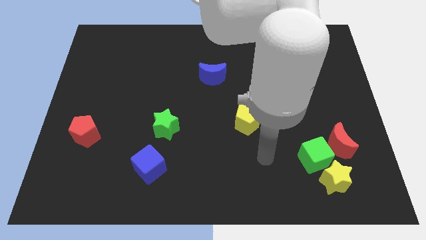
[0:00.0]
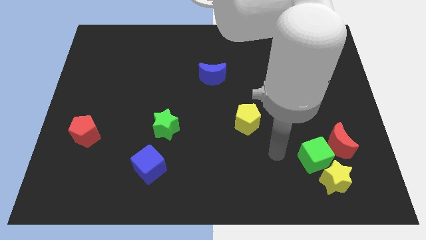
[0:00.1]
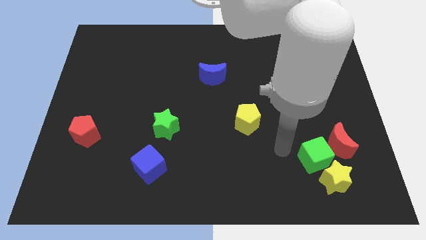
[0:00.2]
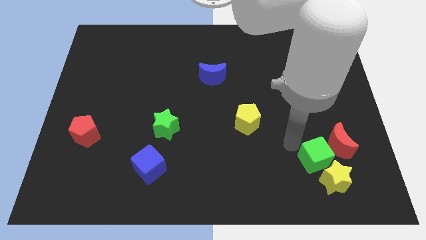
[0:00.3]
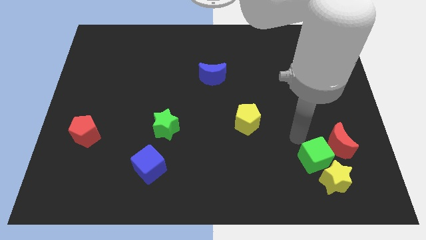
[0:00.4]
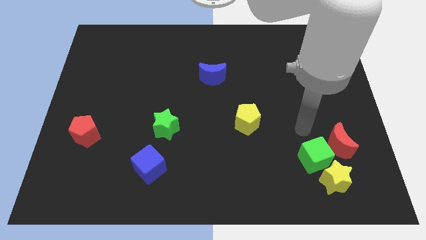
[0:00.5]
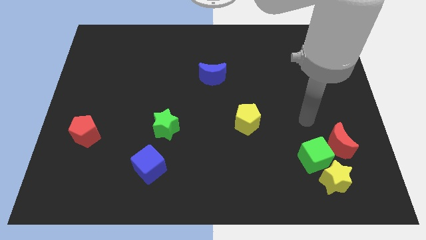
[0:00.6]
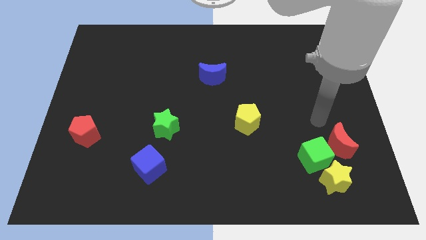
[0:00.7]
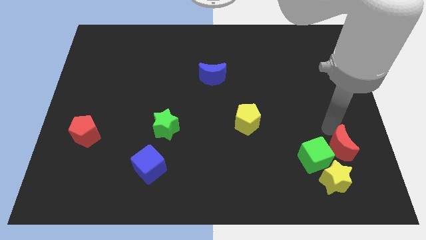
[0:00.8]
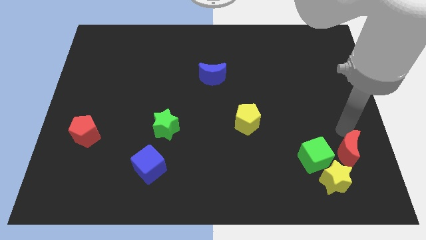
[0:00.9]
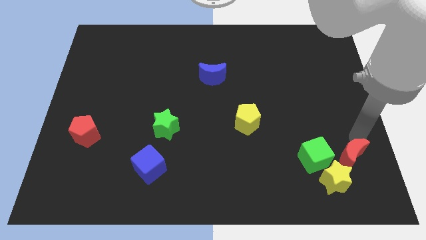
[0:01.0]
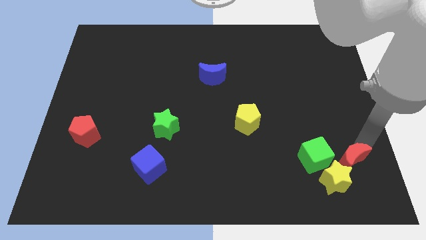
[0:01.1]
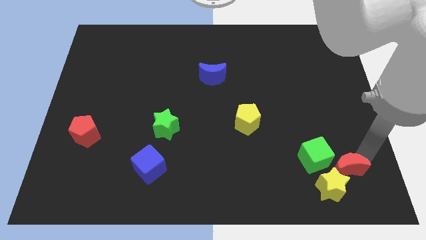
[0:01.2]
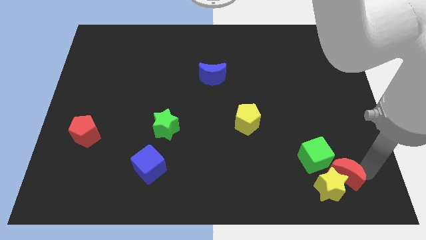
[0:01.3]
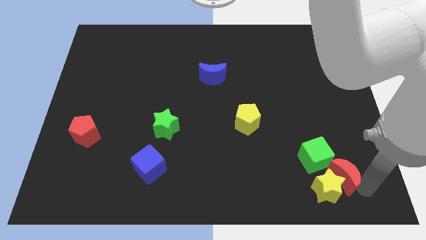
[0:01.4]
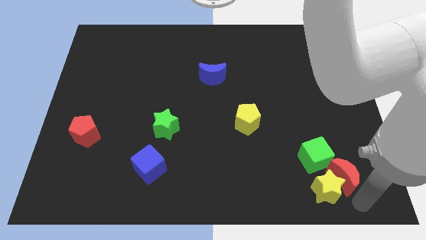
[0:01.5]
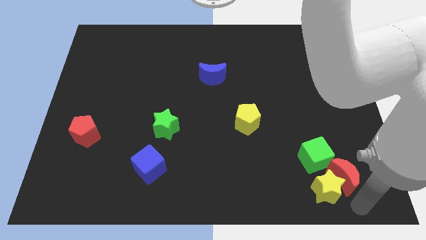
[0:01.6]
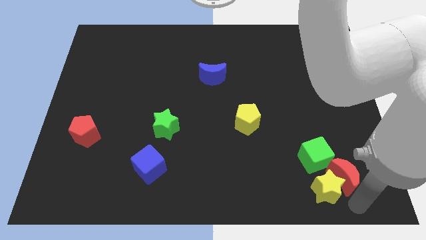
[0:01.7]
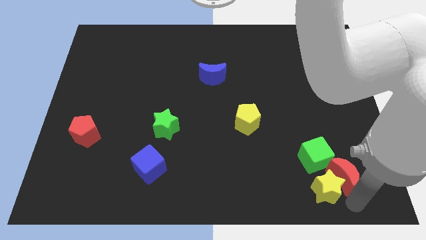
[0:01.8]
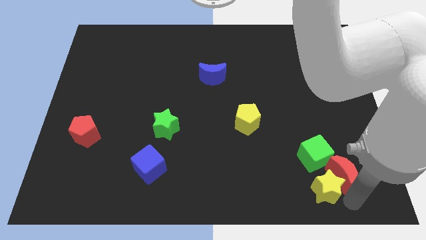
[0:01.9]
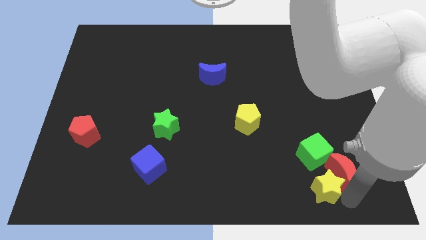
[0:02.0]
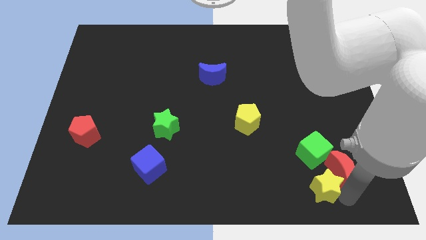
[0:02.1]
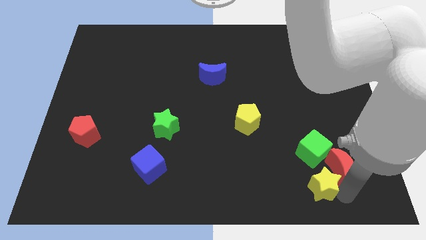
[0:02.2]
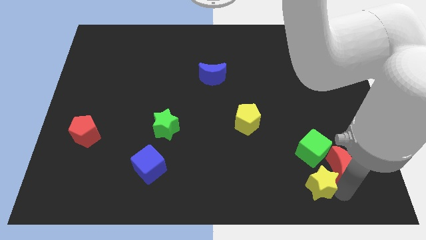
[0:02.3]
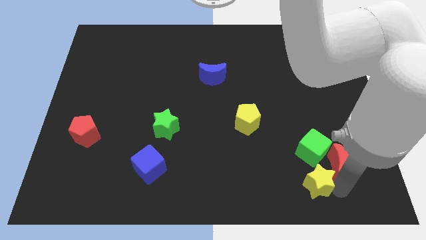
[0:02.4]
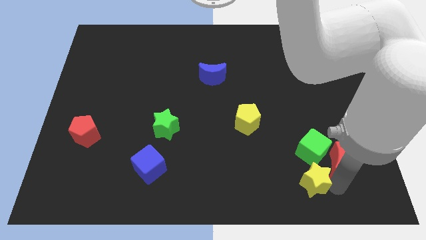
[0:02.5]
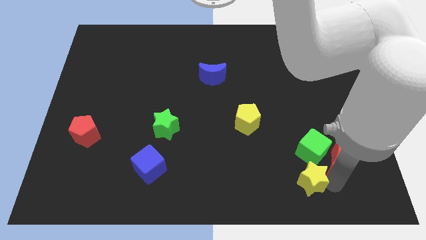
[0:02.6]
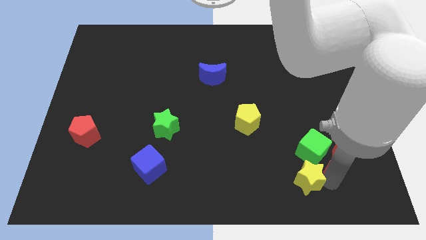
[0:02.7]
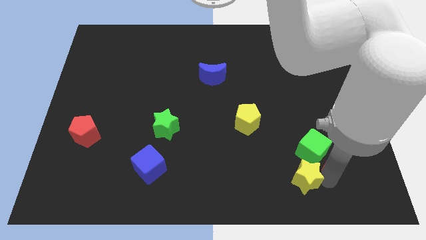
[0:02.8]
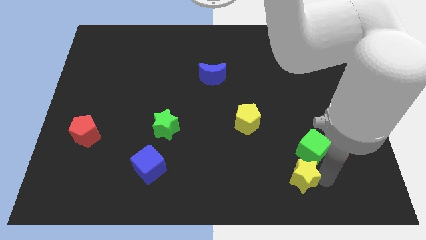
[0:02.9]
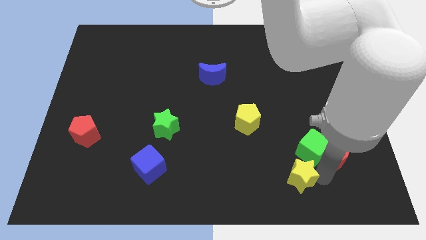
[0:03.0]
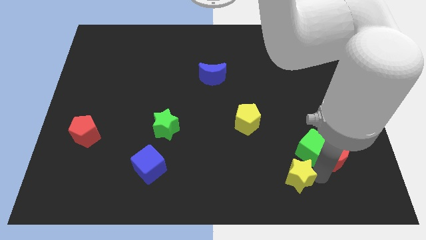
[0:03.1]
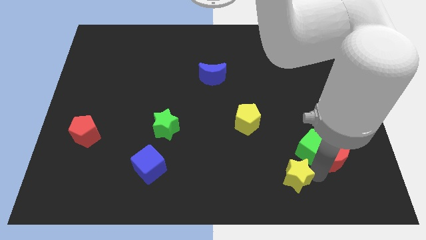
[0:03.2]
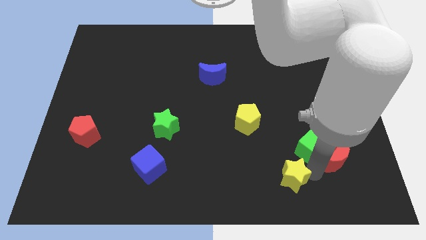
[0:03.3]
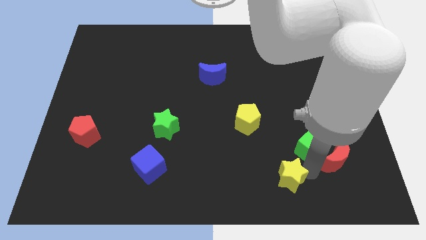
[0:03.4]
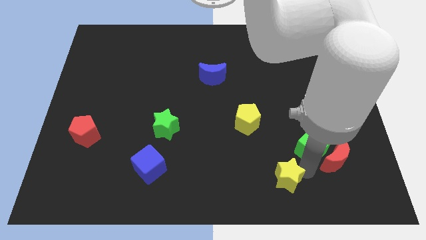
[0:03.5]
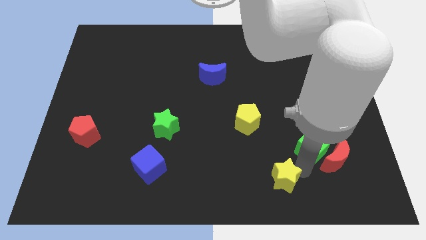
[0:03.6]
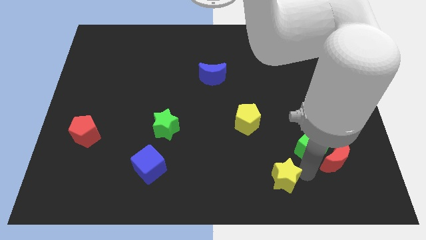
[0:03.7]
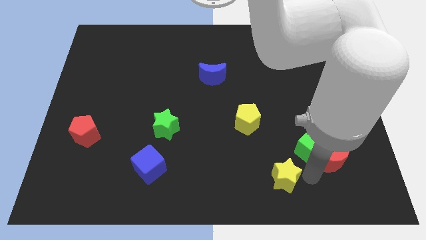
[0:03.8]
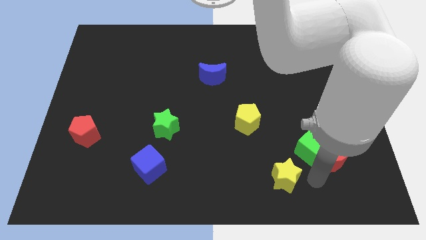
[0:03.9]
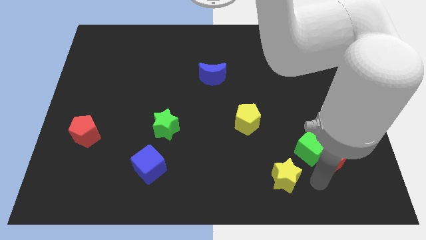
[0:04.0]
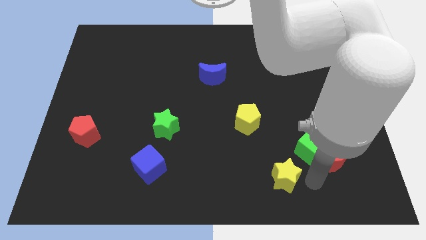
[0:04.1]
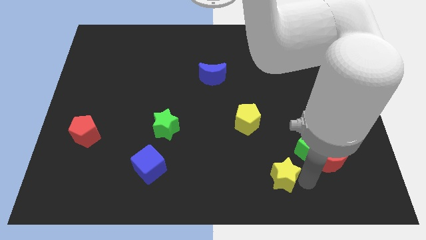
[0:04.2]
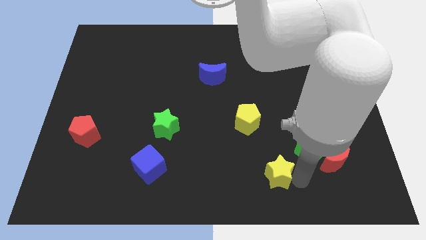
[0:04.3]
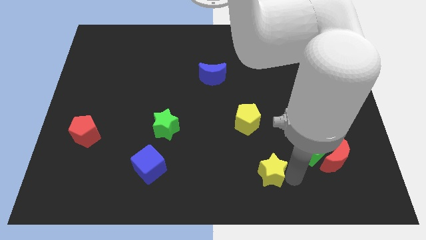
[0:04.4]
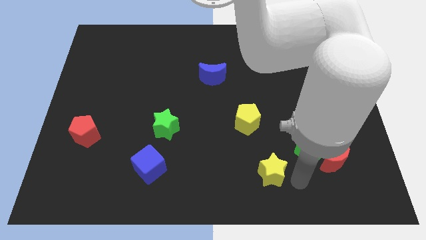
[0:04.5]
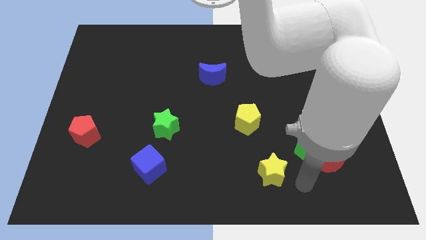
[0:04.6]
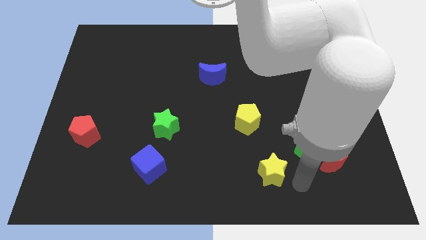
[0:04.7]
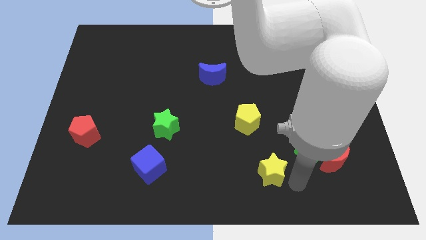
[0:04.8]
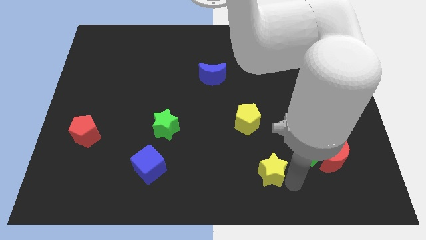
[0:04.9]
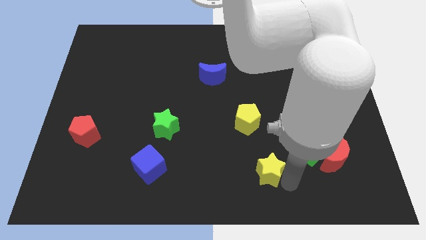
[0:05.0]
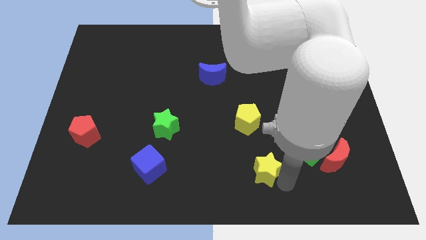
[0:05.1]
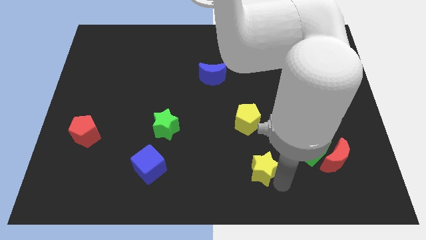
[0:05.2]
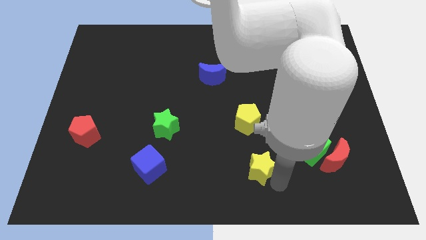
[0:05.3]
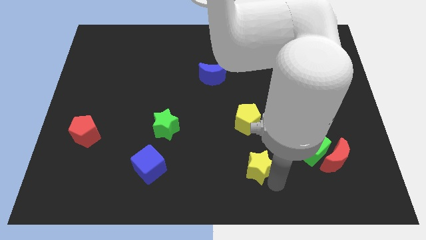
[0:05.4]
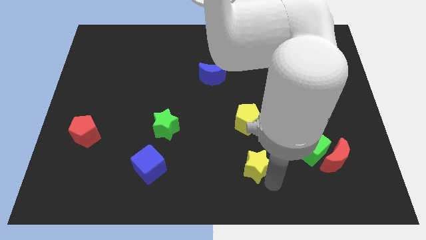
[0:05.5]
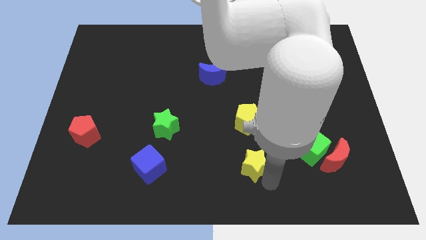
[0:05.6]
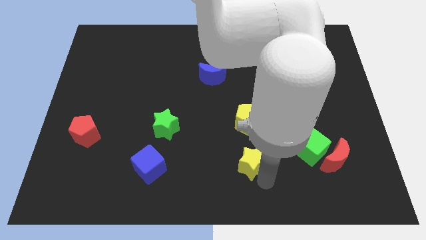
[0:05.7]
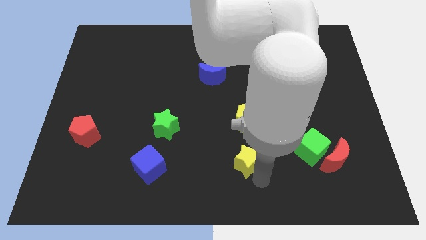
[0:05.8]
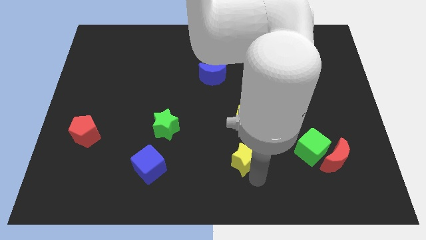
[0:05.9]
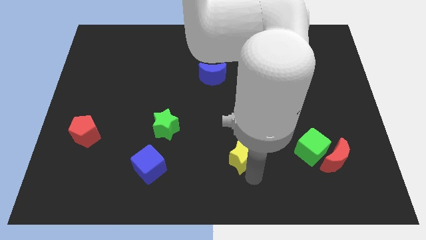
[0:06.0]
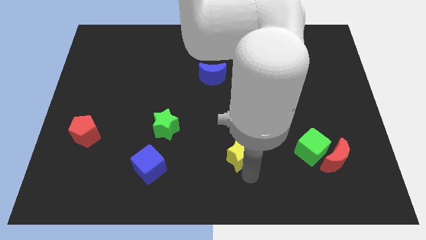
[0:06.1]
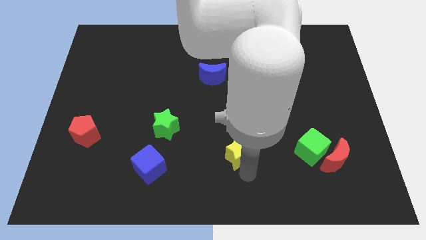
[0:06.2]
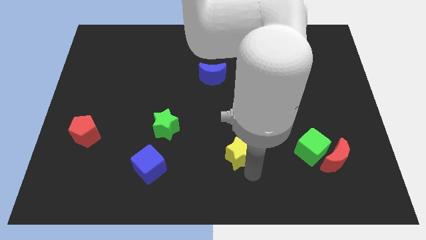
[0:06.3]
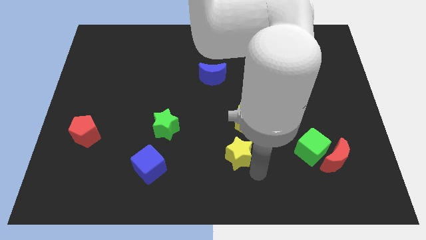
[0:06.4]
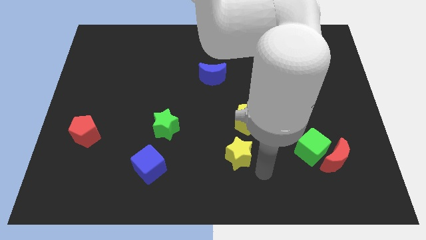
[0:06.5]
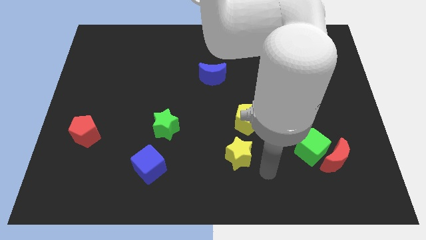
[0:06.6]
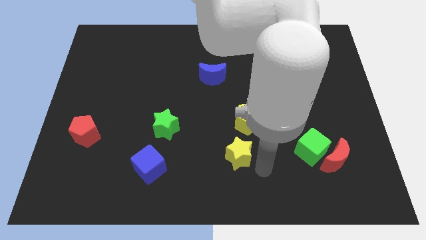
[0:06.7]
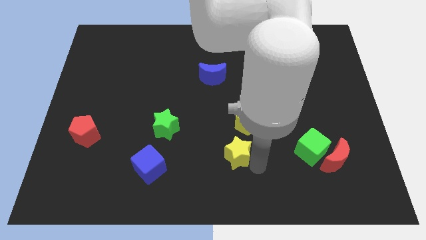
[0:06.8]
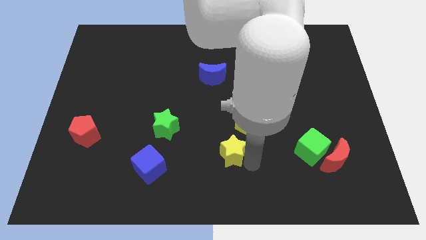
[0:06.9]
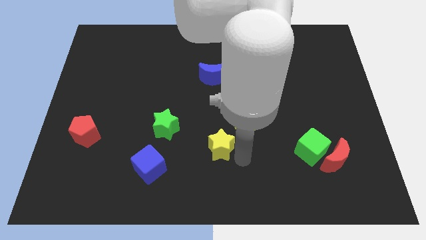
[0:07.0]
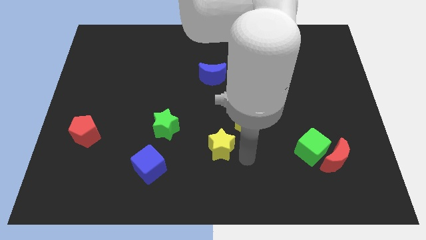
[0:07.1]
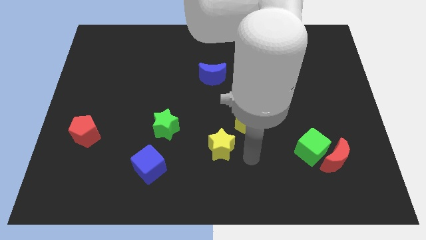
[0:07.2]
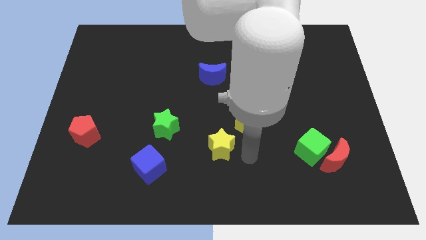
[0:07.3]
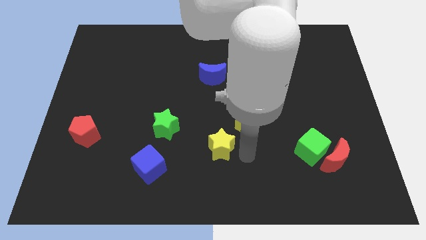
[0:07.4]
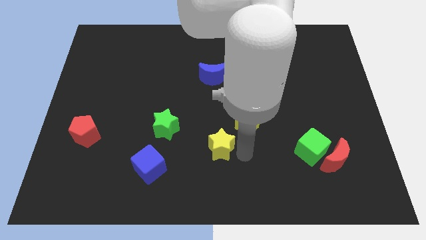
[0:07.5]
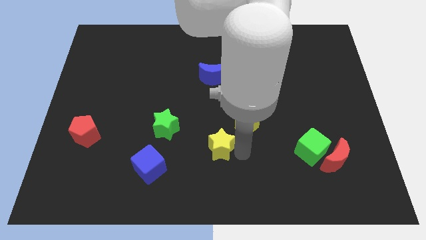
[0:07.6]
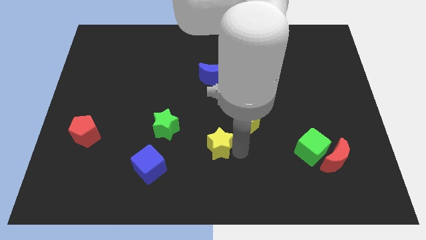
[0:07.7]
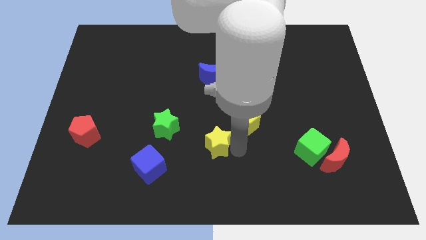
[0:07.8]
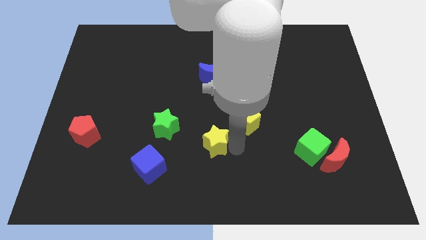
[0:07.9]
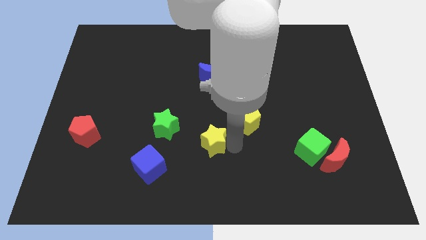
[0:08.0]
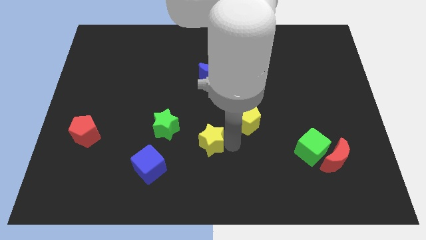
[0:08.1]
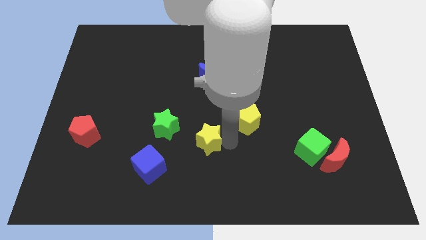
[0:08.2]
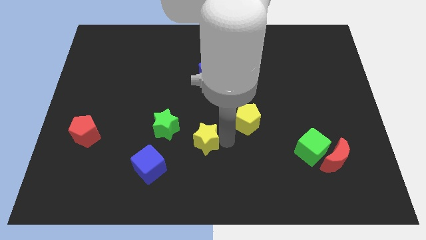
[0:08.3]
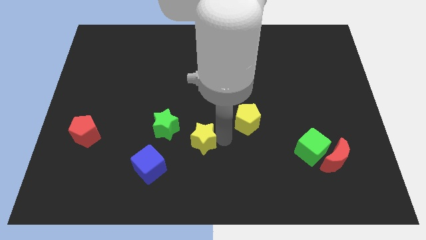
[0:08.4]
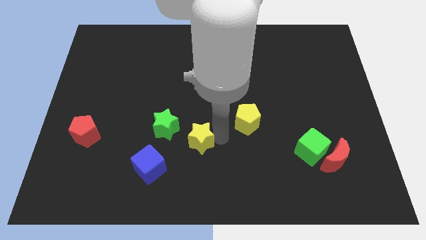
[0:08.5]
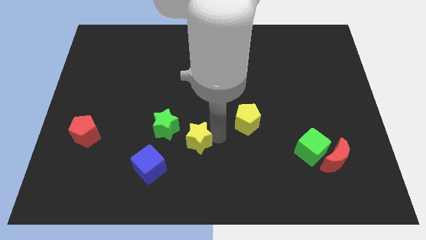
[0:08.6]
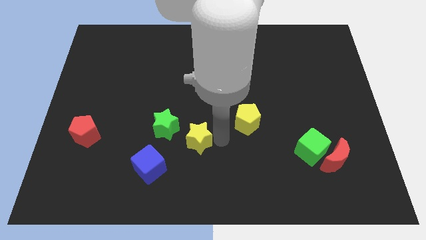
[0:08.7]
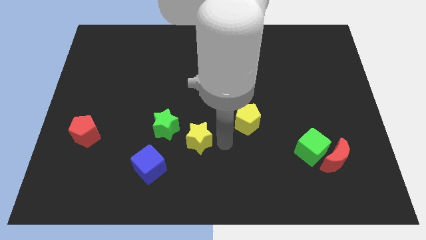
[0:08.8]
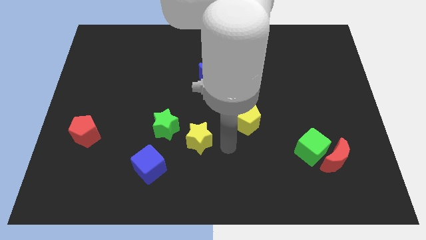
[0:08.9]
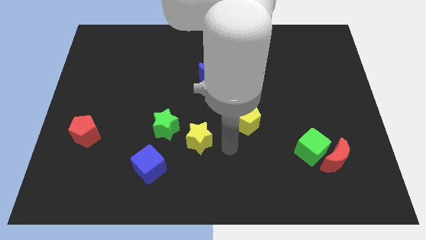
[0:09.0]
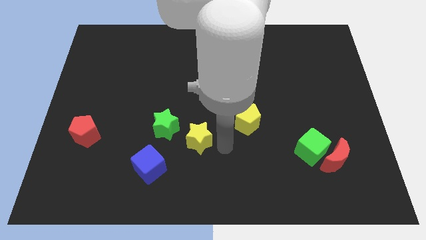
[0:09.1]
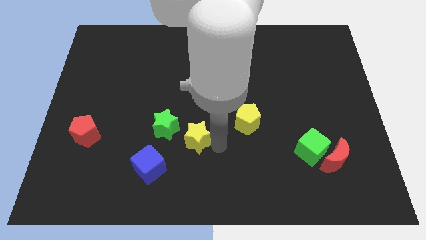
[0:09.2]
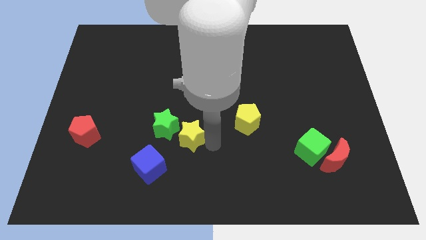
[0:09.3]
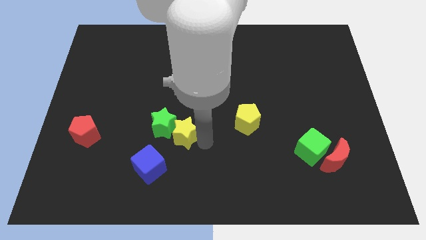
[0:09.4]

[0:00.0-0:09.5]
push the yellow star next to the green star
